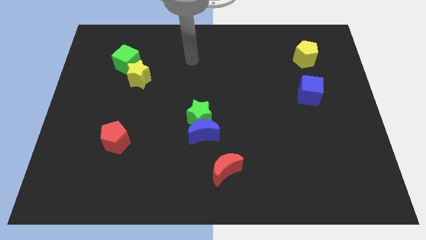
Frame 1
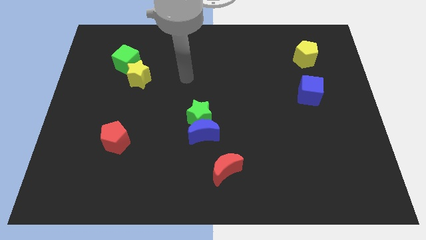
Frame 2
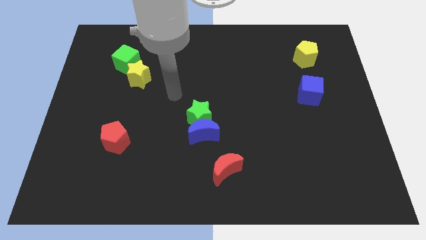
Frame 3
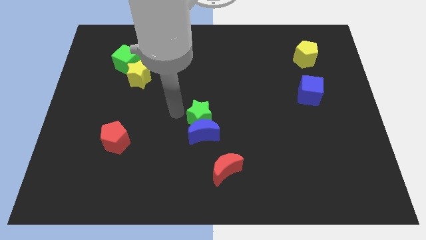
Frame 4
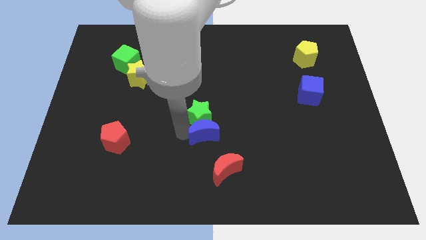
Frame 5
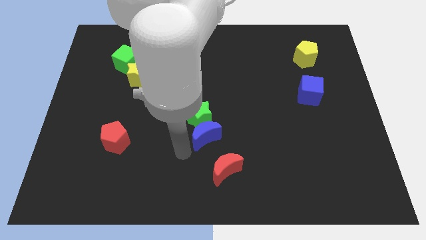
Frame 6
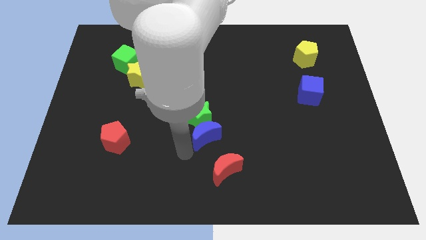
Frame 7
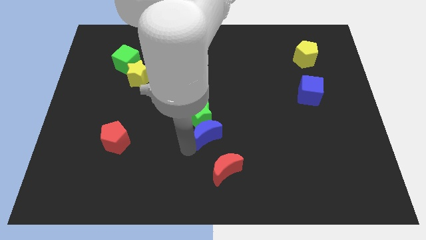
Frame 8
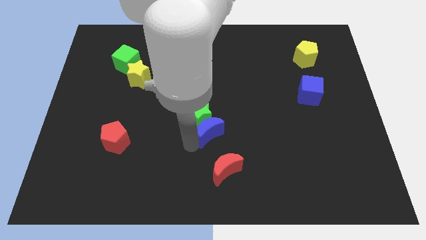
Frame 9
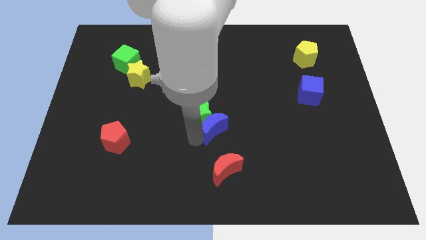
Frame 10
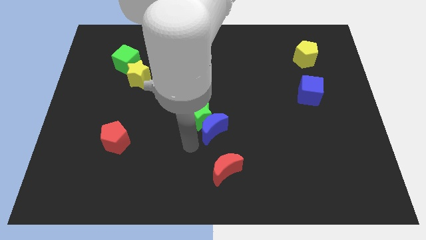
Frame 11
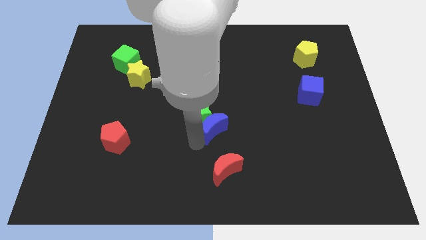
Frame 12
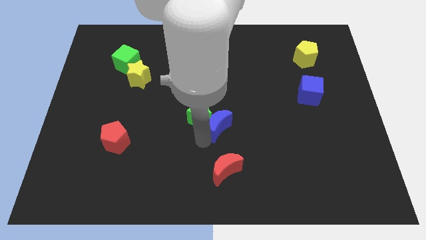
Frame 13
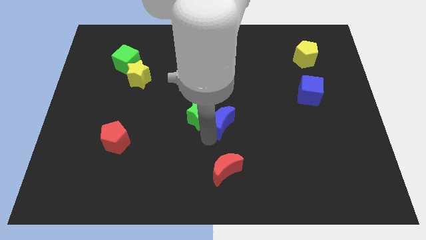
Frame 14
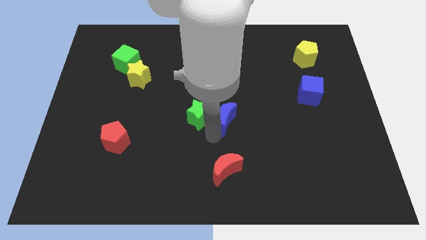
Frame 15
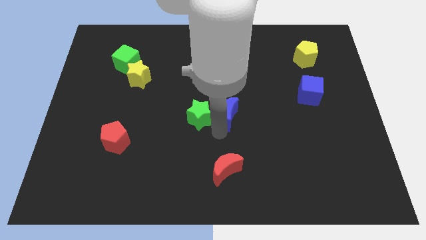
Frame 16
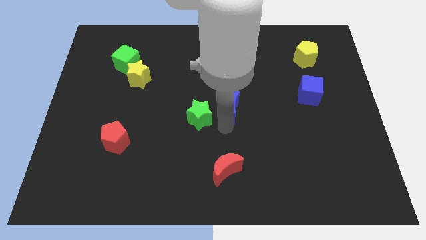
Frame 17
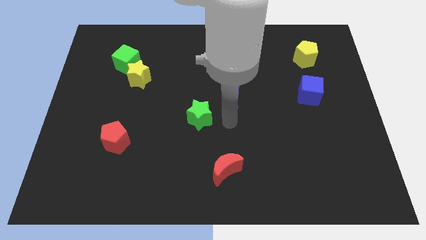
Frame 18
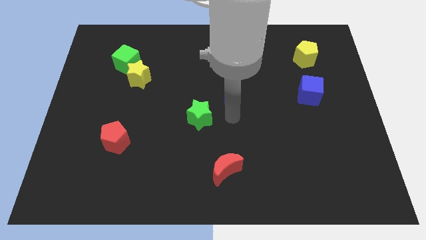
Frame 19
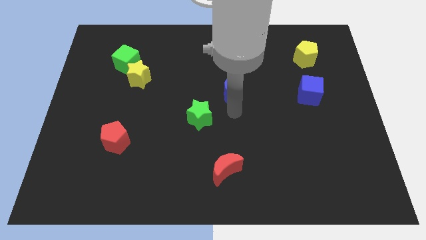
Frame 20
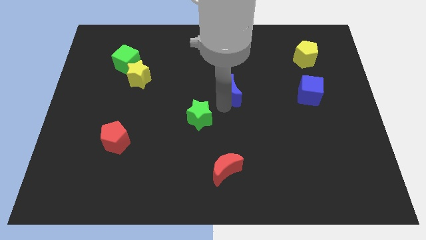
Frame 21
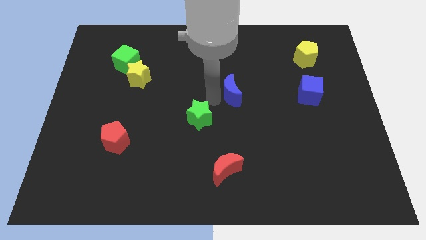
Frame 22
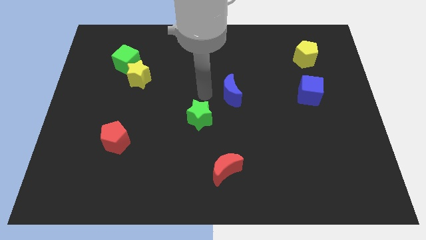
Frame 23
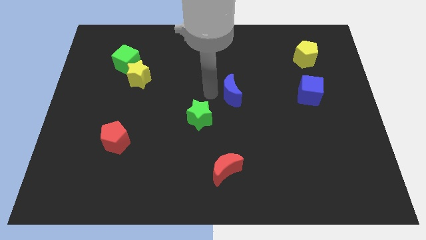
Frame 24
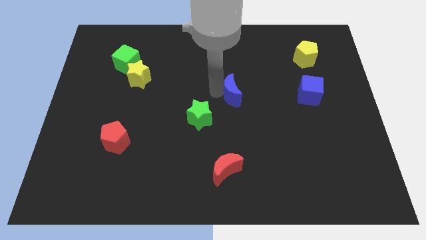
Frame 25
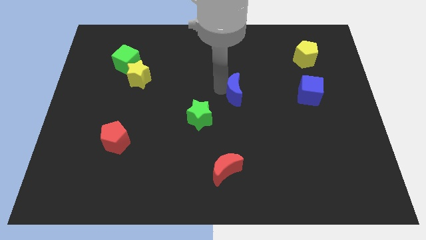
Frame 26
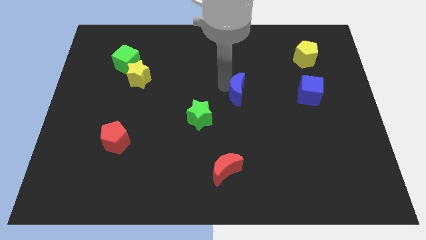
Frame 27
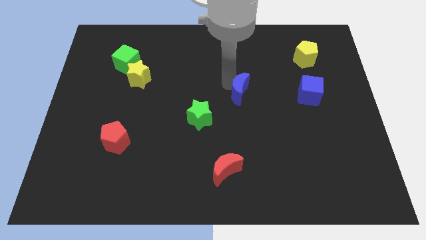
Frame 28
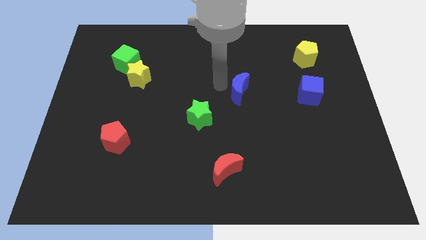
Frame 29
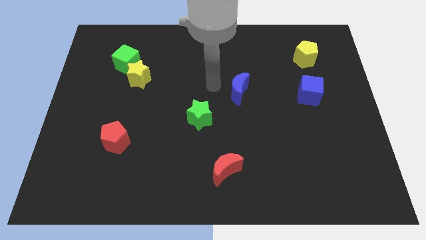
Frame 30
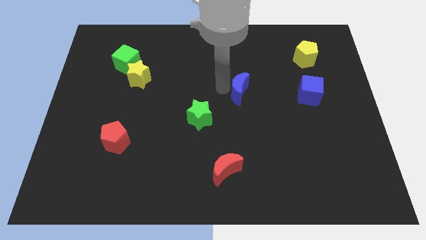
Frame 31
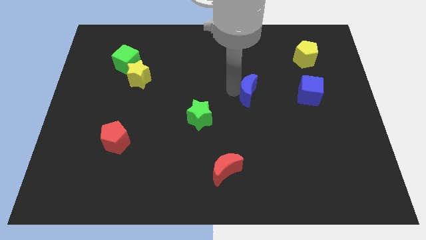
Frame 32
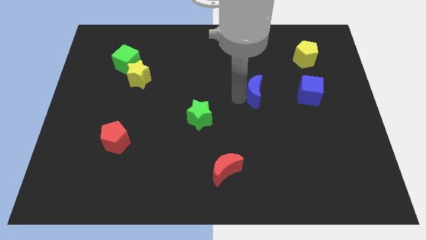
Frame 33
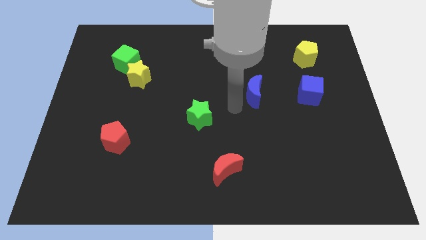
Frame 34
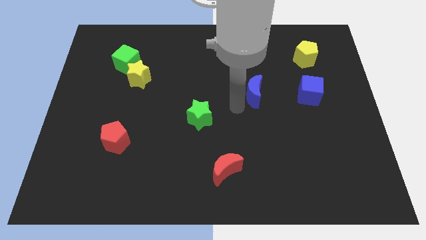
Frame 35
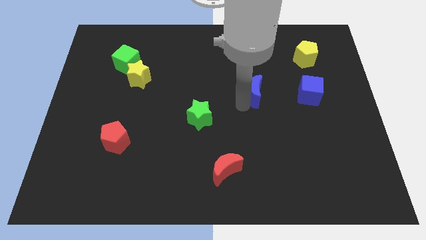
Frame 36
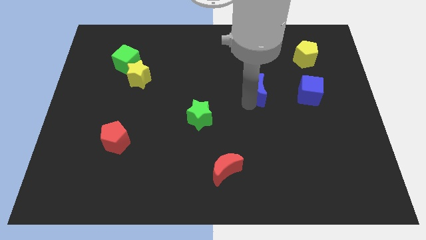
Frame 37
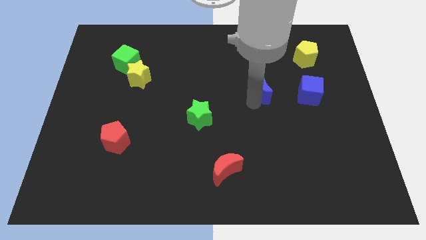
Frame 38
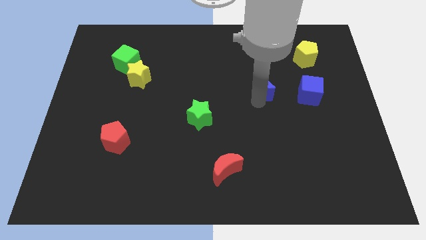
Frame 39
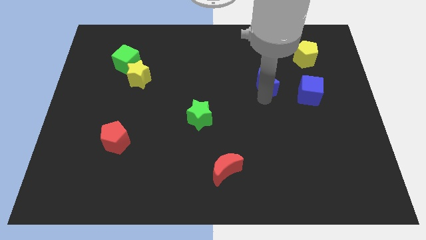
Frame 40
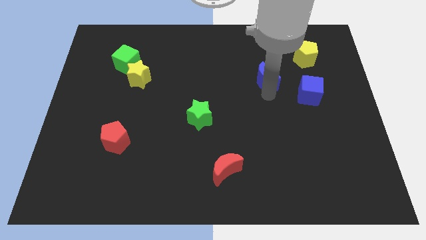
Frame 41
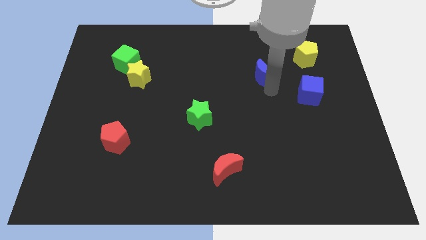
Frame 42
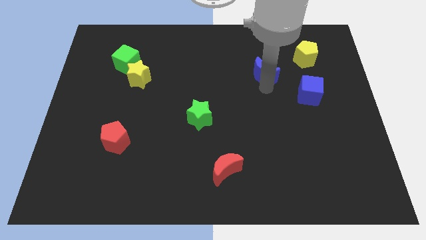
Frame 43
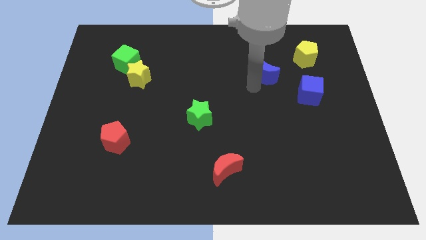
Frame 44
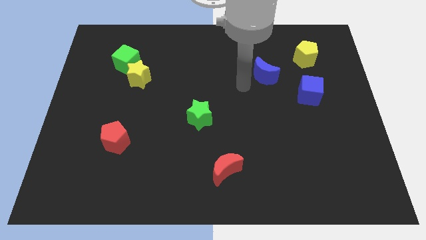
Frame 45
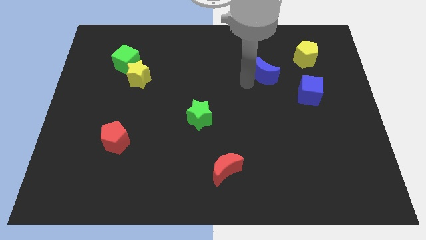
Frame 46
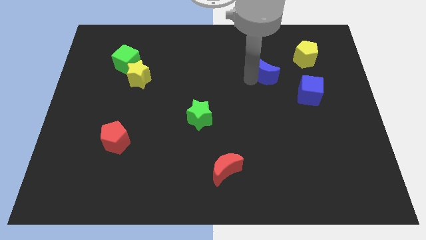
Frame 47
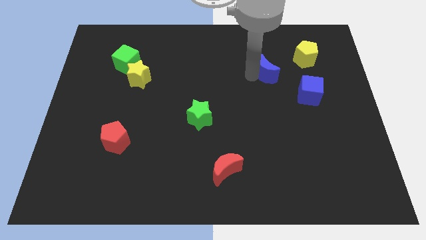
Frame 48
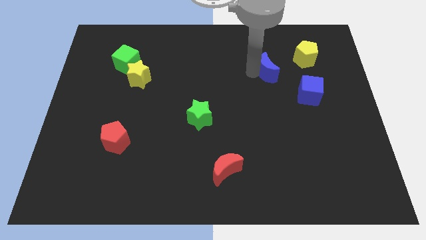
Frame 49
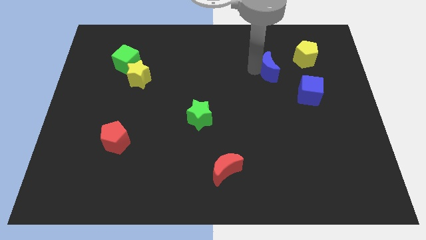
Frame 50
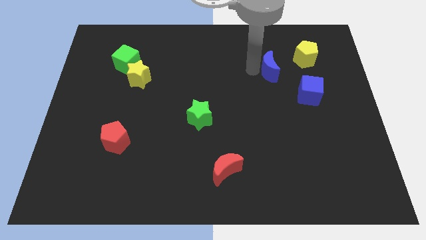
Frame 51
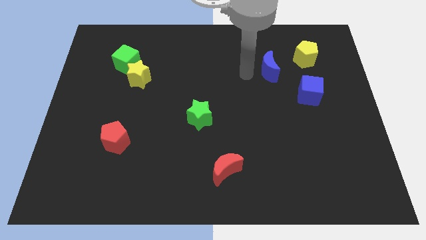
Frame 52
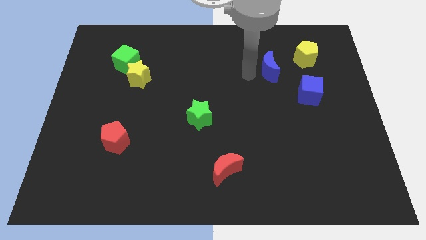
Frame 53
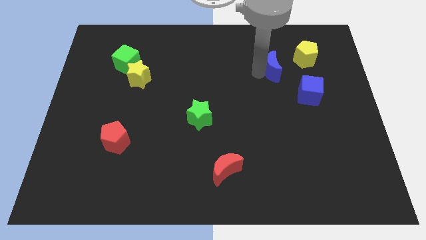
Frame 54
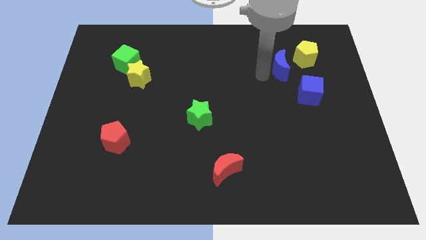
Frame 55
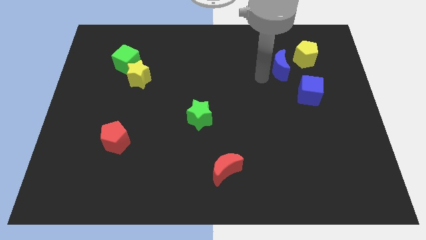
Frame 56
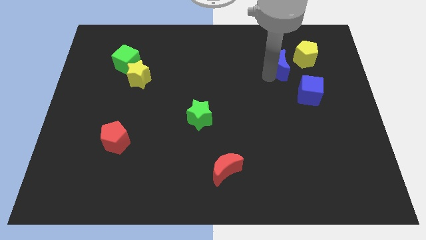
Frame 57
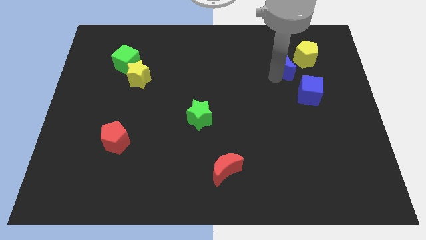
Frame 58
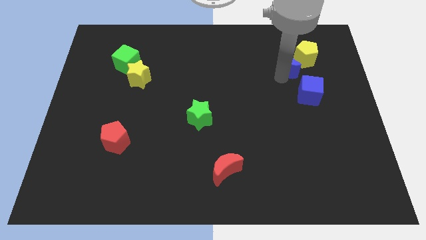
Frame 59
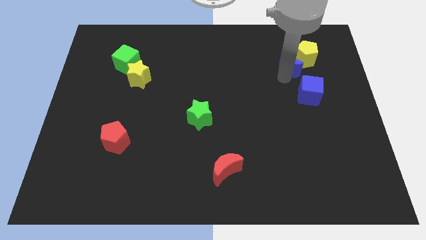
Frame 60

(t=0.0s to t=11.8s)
put the blue moon close to the yellow pentagon

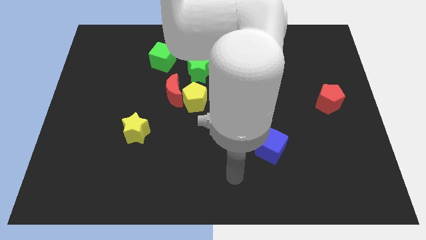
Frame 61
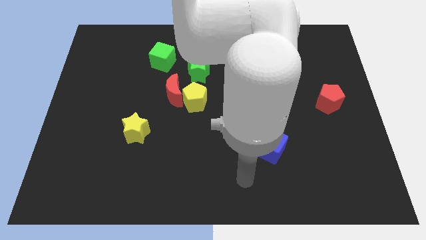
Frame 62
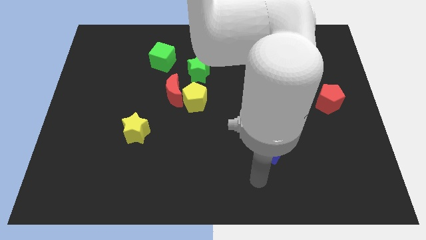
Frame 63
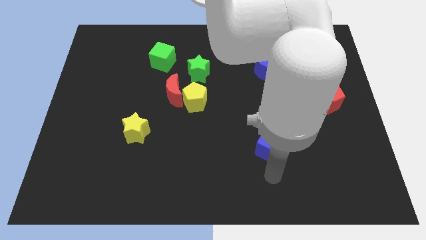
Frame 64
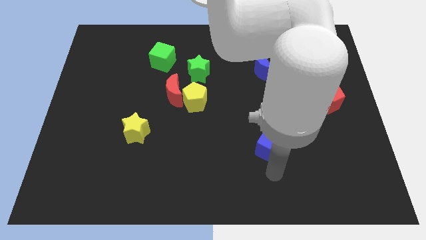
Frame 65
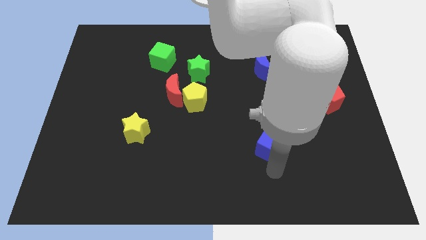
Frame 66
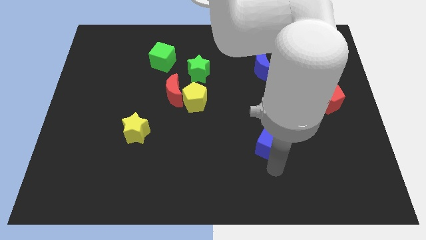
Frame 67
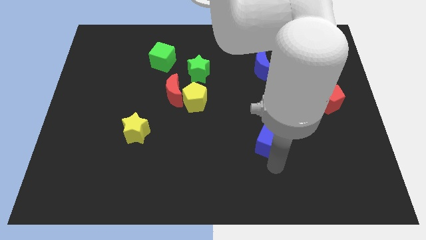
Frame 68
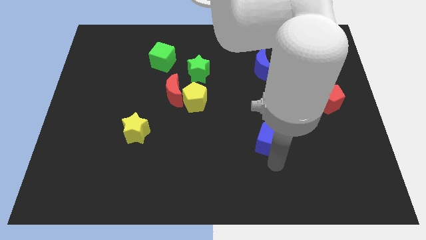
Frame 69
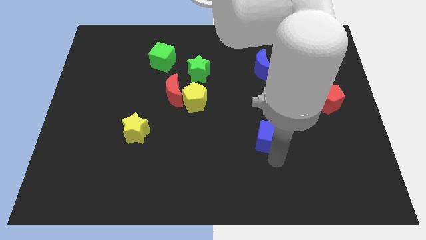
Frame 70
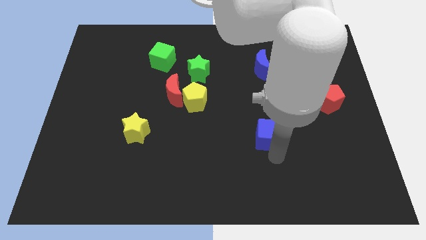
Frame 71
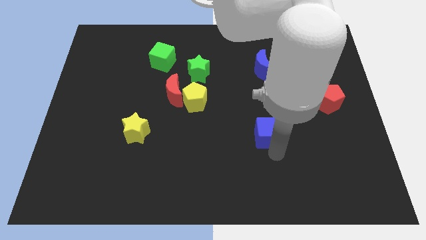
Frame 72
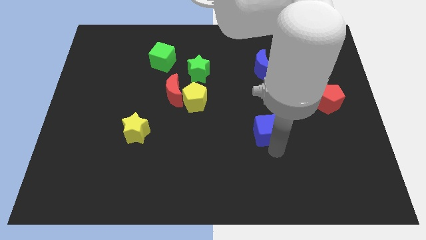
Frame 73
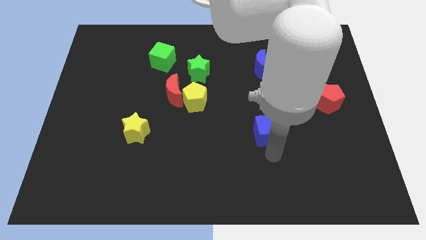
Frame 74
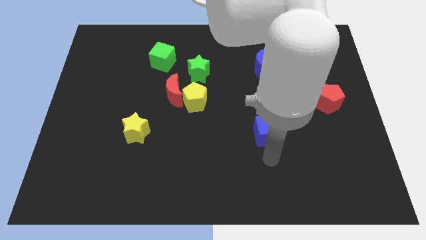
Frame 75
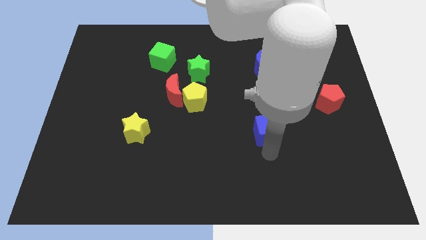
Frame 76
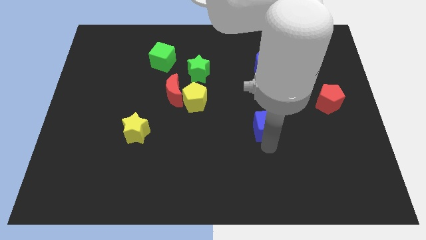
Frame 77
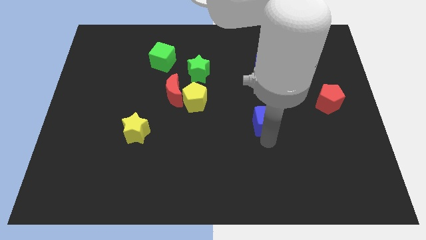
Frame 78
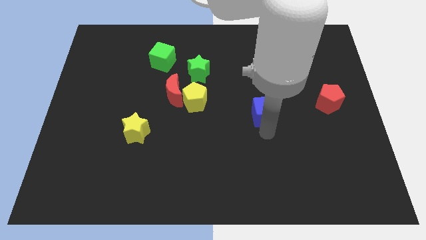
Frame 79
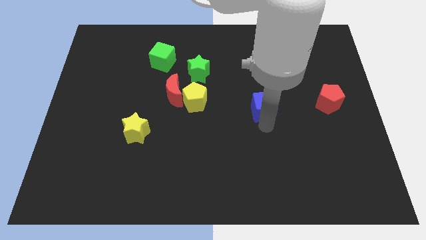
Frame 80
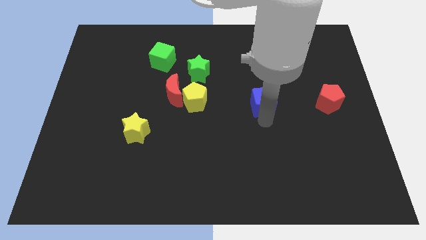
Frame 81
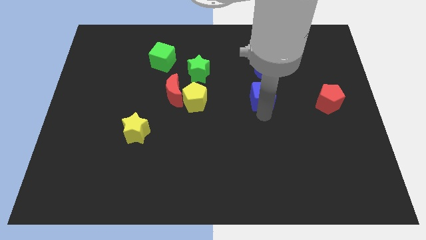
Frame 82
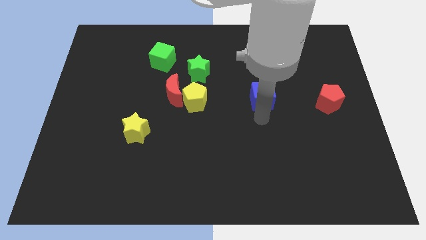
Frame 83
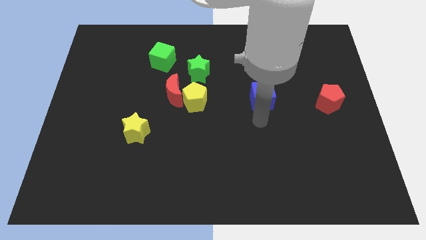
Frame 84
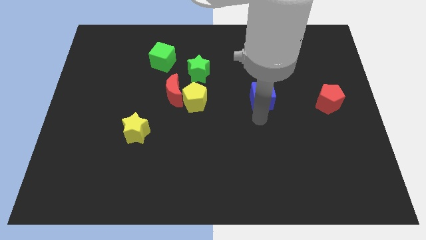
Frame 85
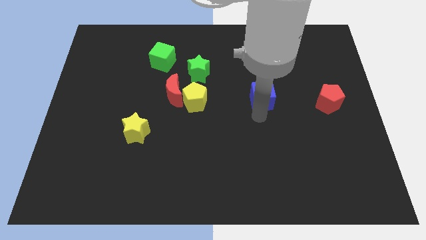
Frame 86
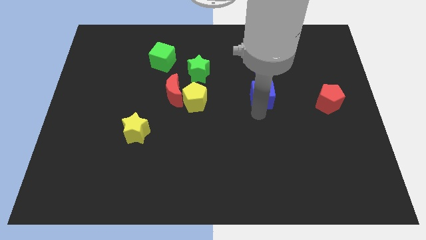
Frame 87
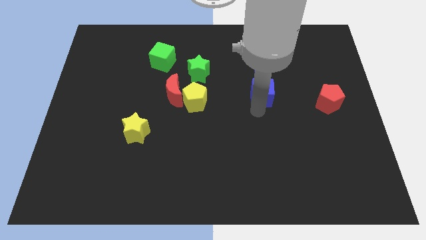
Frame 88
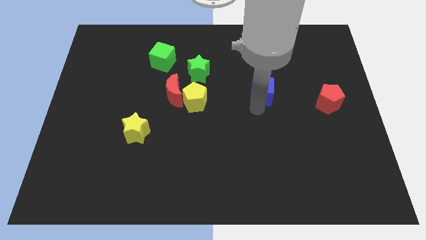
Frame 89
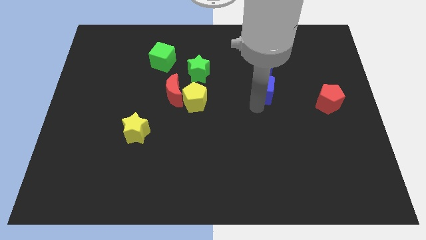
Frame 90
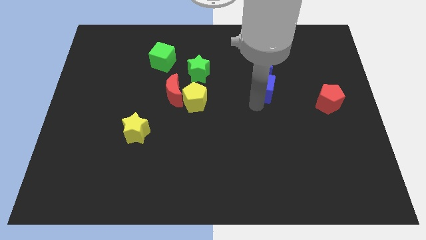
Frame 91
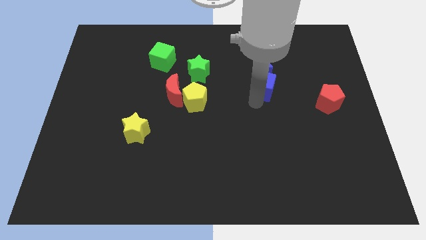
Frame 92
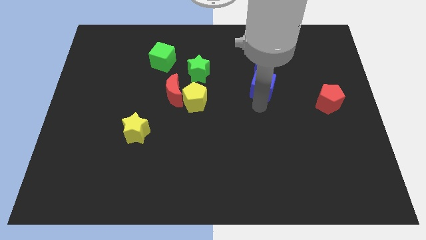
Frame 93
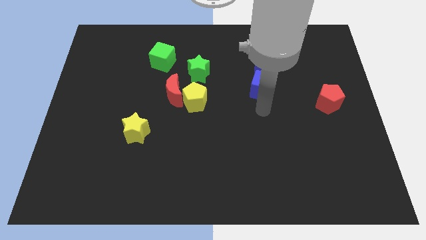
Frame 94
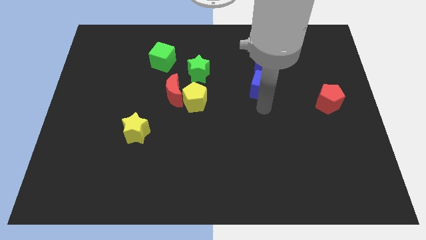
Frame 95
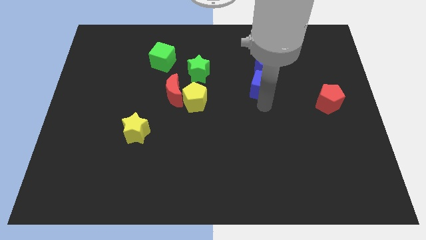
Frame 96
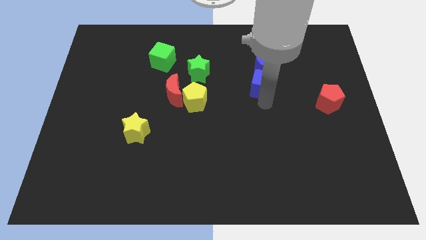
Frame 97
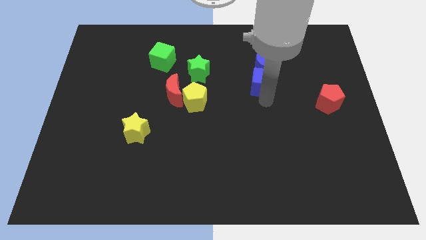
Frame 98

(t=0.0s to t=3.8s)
move the blue cube next to the blue moon
